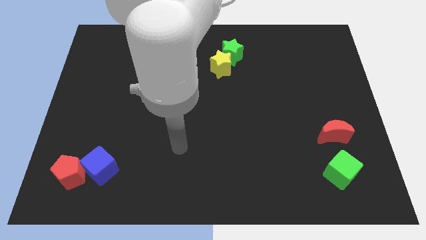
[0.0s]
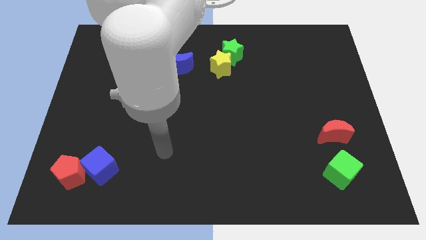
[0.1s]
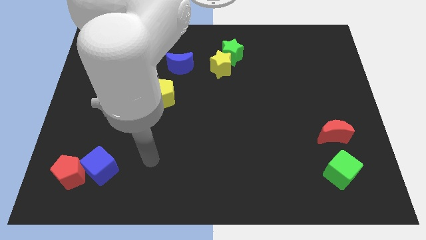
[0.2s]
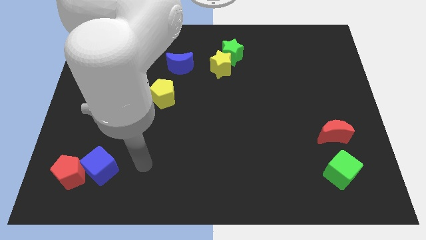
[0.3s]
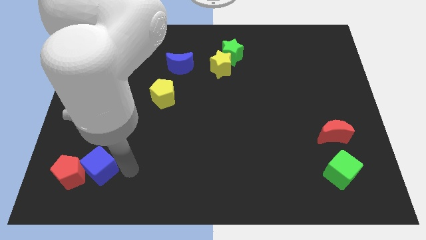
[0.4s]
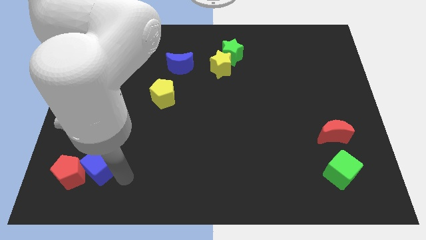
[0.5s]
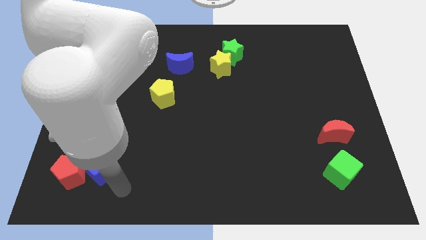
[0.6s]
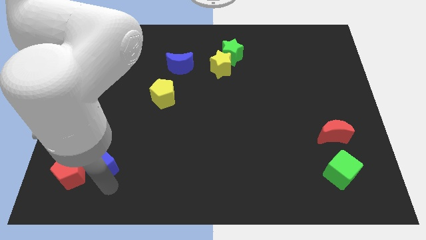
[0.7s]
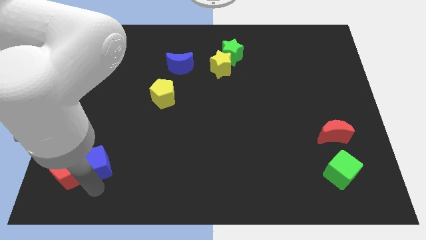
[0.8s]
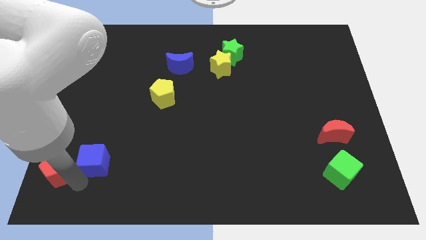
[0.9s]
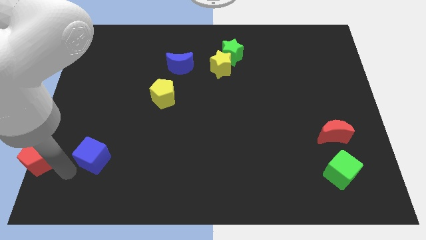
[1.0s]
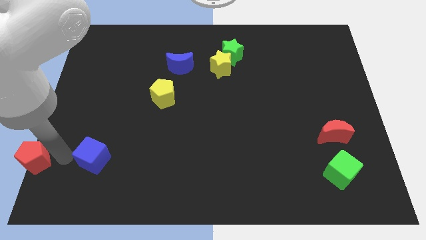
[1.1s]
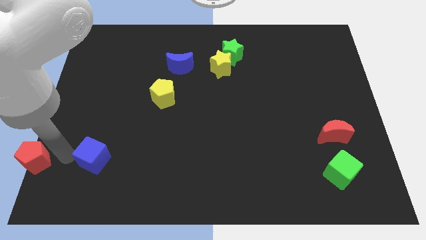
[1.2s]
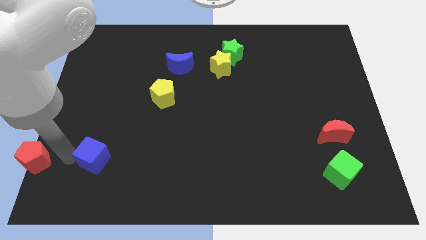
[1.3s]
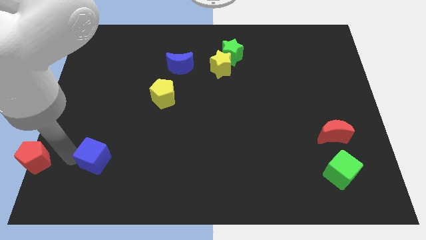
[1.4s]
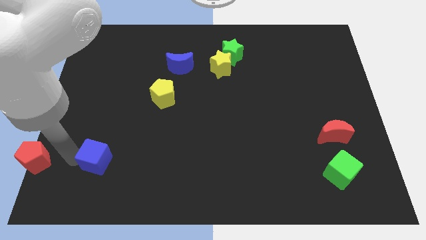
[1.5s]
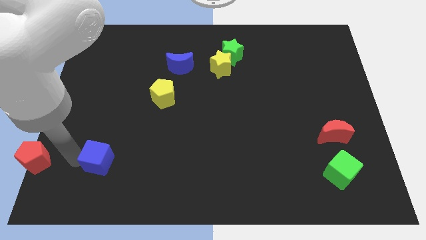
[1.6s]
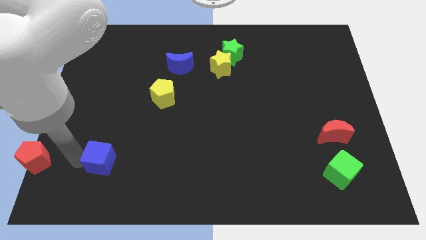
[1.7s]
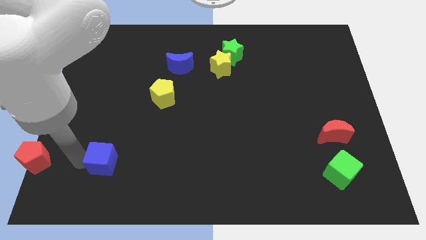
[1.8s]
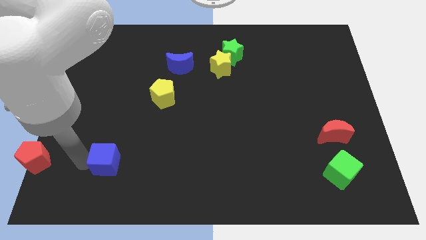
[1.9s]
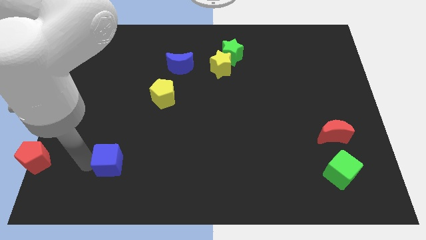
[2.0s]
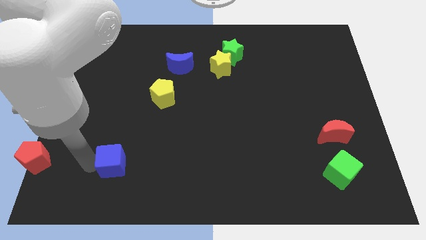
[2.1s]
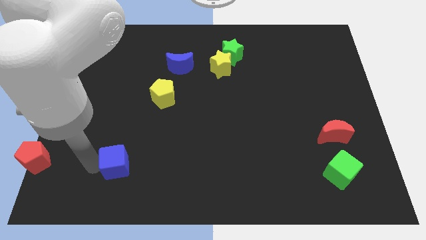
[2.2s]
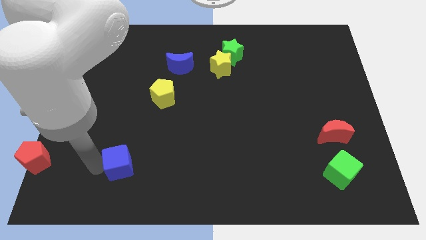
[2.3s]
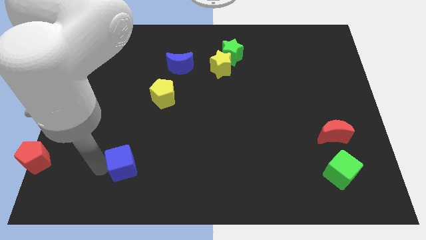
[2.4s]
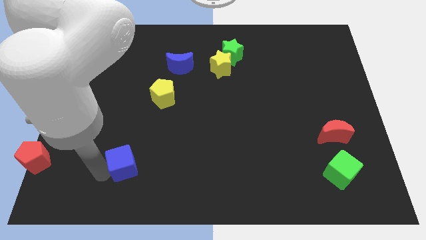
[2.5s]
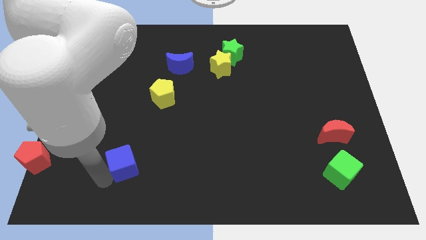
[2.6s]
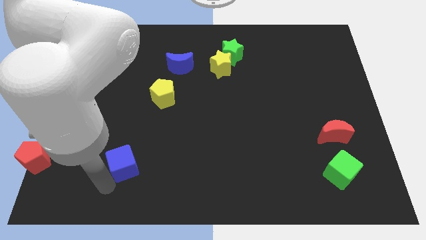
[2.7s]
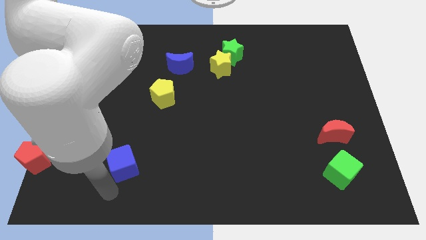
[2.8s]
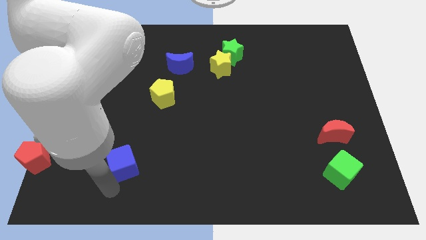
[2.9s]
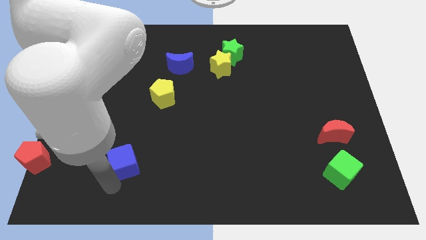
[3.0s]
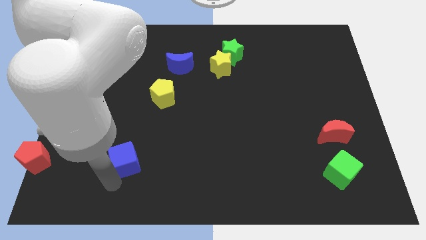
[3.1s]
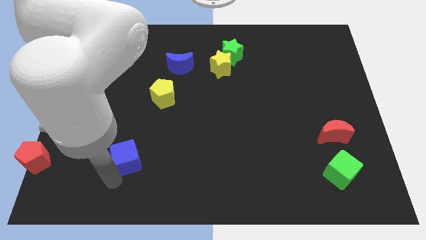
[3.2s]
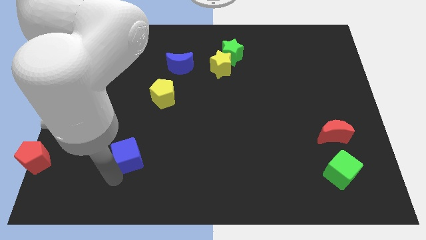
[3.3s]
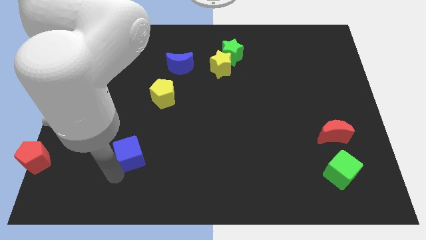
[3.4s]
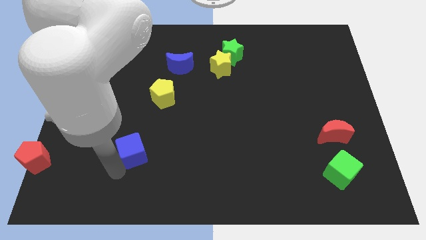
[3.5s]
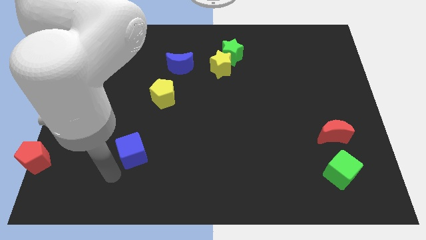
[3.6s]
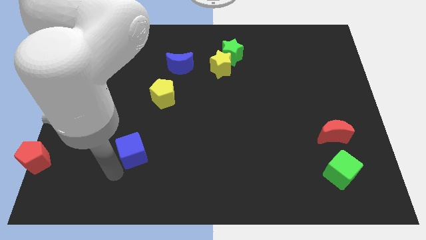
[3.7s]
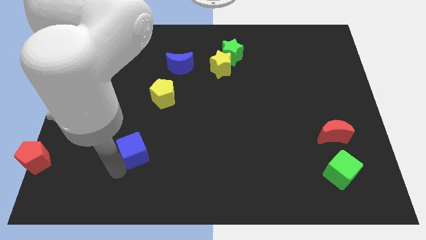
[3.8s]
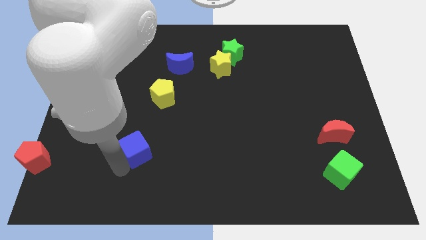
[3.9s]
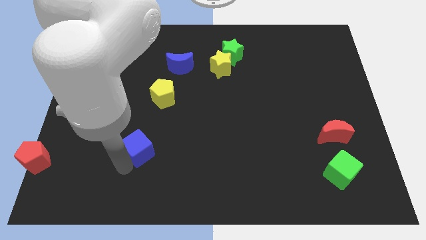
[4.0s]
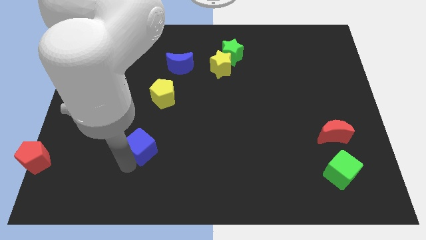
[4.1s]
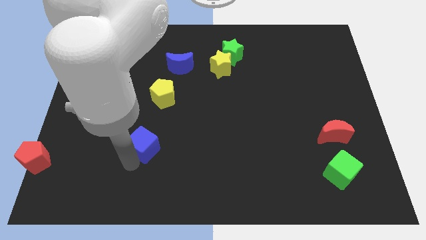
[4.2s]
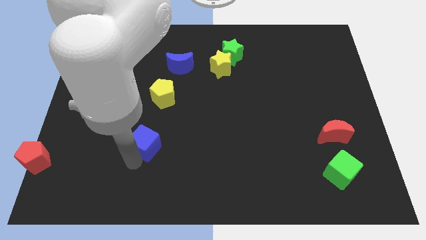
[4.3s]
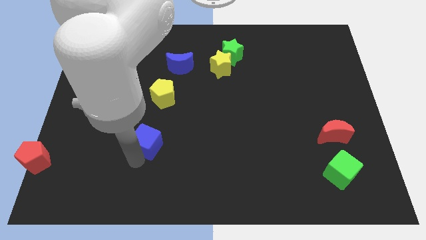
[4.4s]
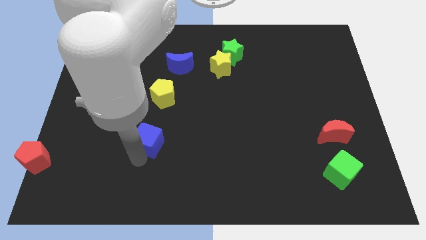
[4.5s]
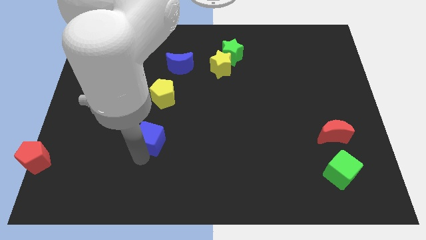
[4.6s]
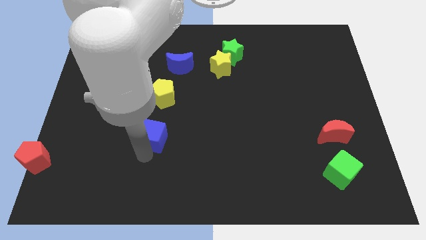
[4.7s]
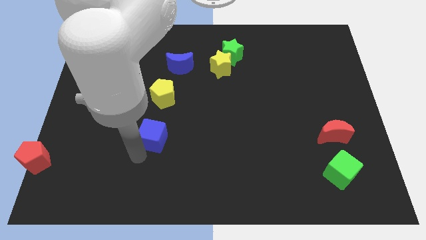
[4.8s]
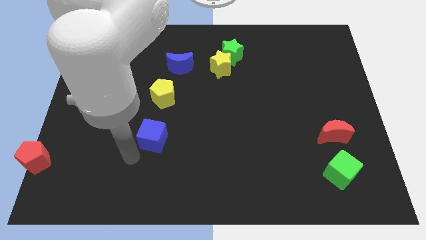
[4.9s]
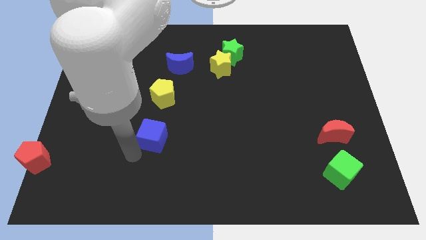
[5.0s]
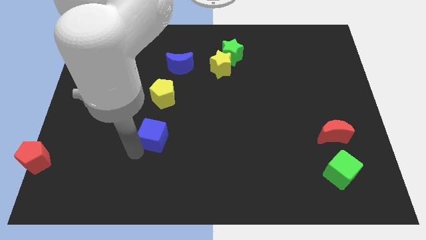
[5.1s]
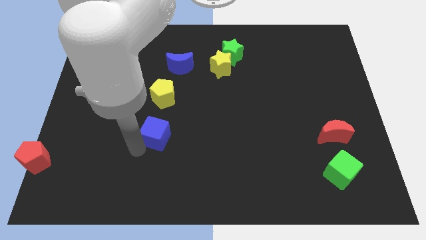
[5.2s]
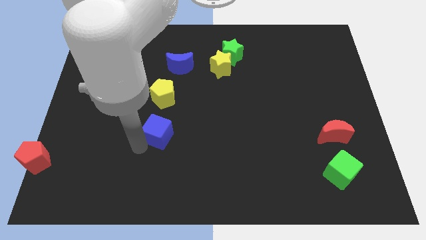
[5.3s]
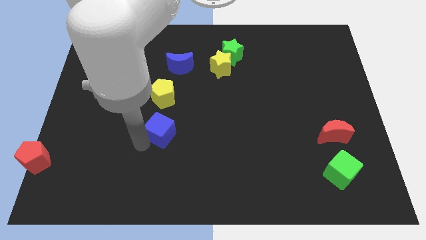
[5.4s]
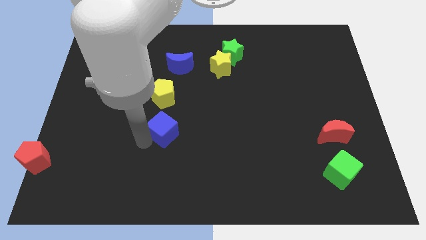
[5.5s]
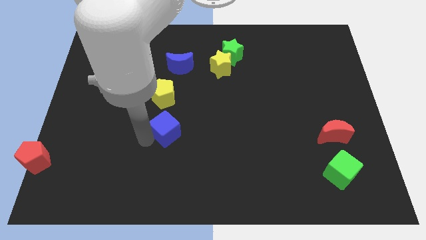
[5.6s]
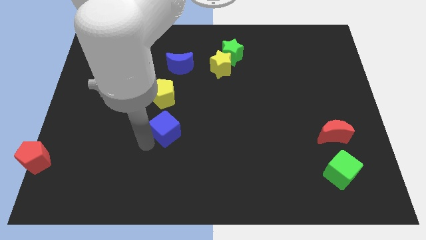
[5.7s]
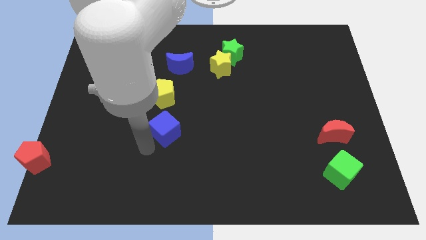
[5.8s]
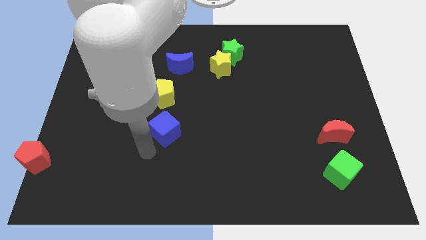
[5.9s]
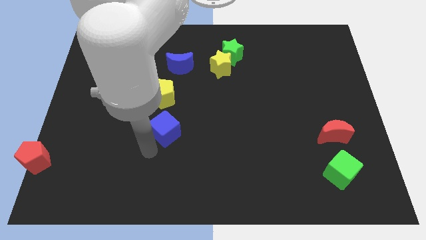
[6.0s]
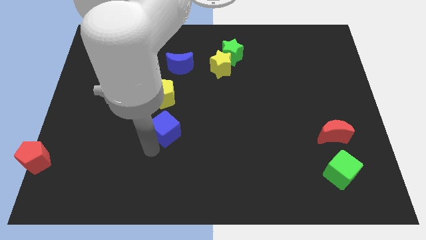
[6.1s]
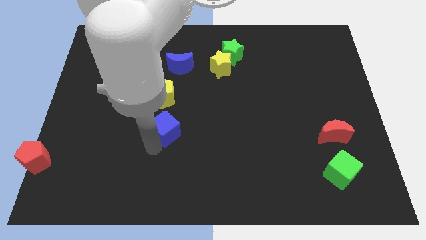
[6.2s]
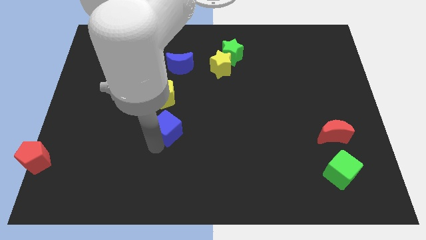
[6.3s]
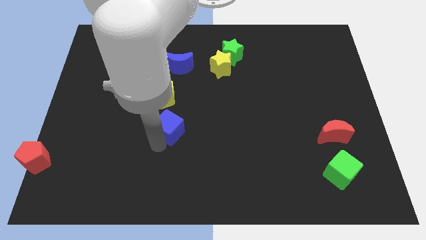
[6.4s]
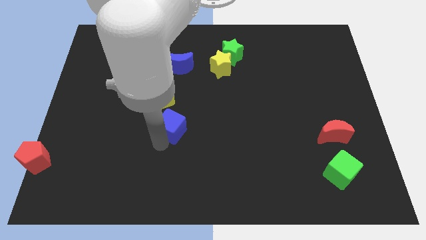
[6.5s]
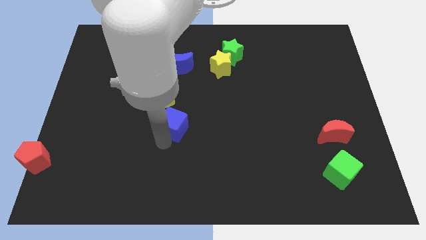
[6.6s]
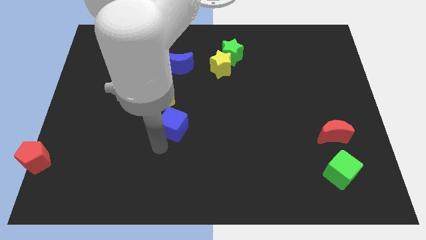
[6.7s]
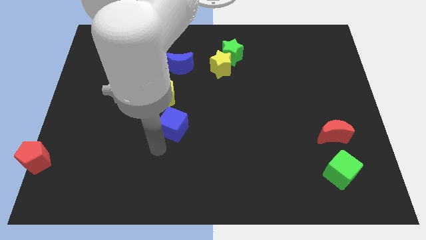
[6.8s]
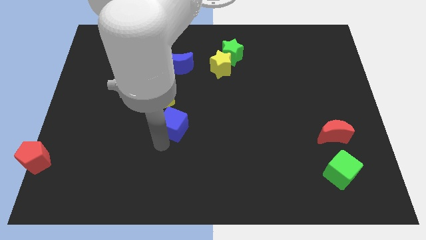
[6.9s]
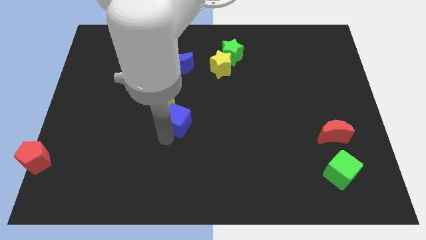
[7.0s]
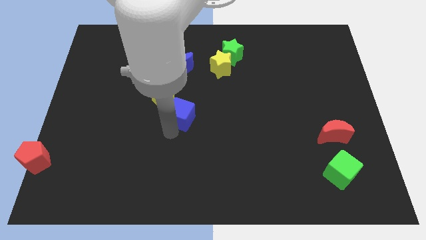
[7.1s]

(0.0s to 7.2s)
slide the blue cube diagonally upwards and right

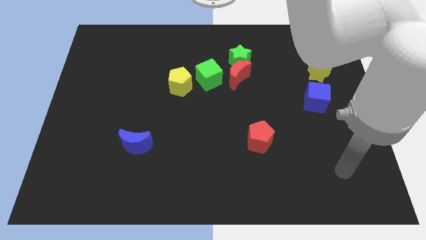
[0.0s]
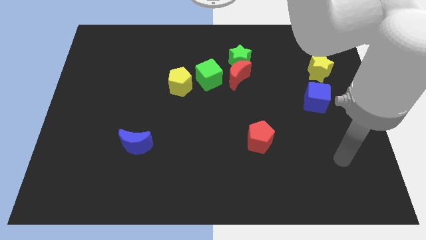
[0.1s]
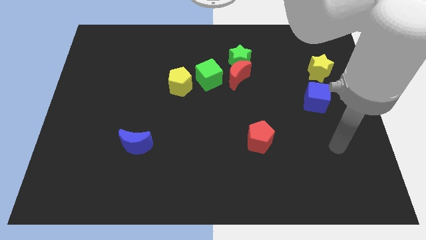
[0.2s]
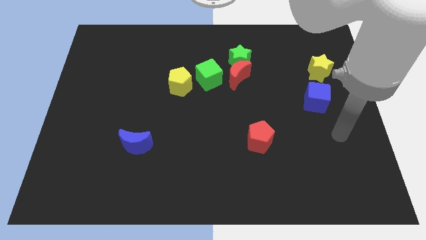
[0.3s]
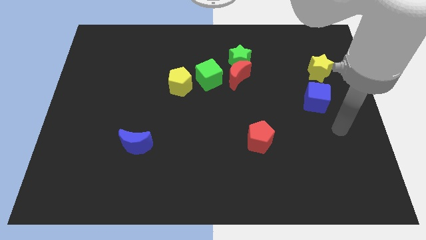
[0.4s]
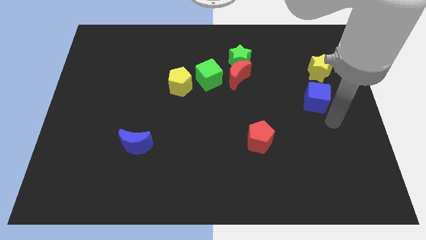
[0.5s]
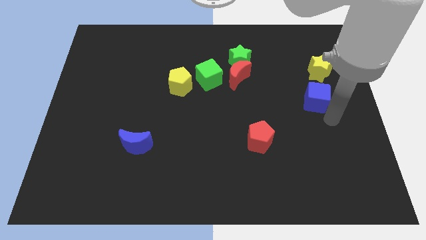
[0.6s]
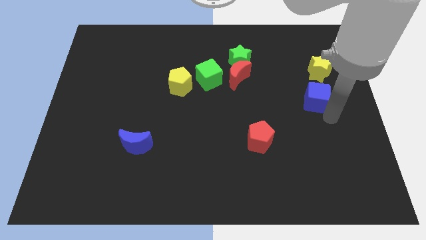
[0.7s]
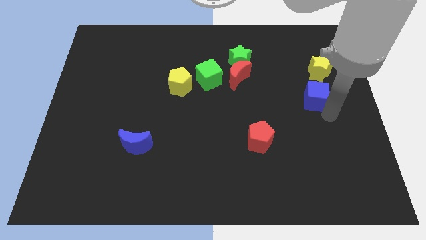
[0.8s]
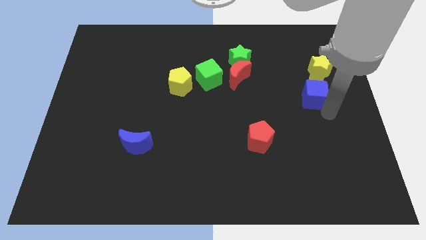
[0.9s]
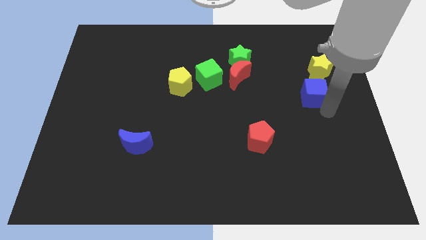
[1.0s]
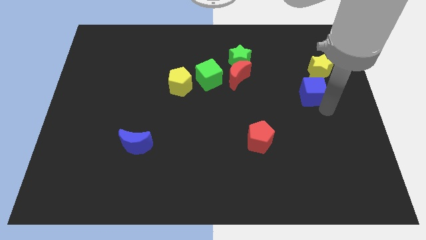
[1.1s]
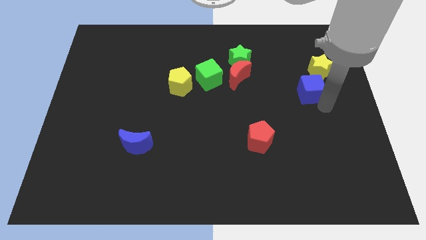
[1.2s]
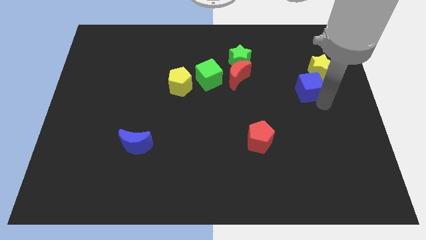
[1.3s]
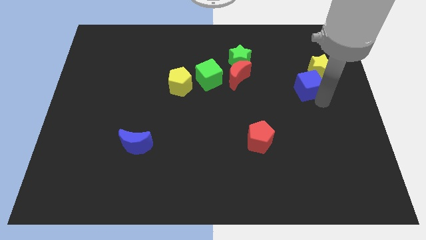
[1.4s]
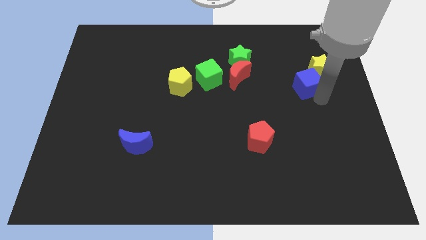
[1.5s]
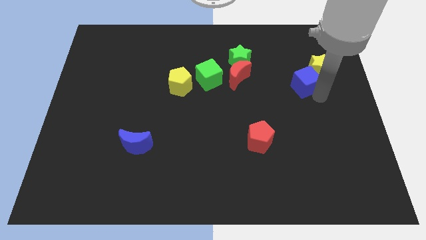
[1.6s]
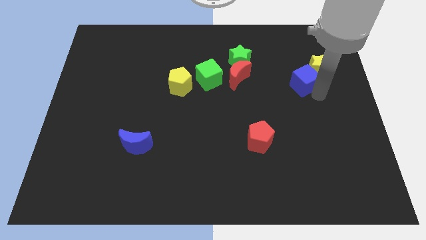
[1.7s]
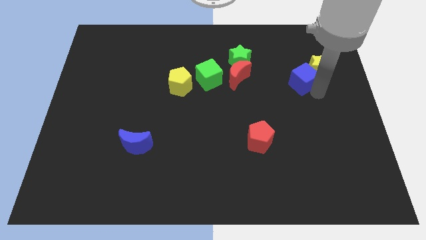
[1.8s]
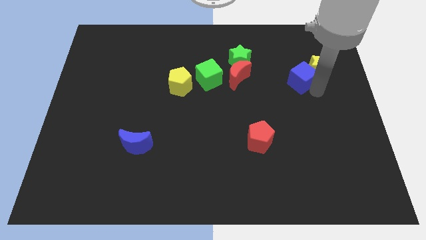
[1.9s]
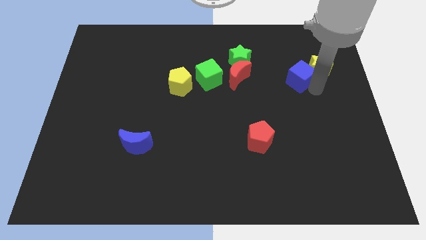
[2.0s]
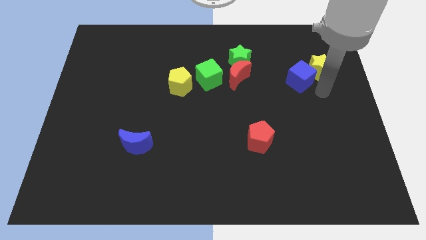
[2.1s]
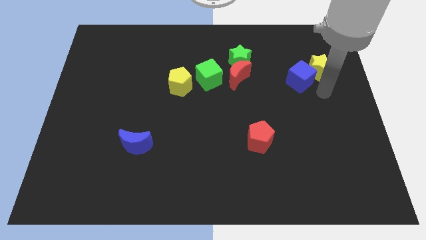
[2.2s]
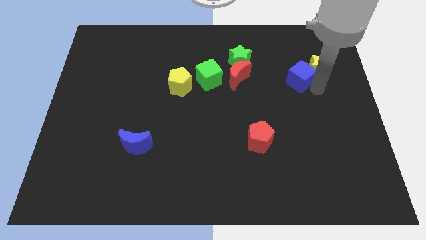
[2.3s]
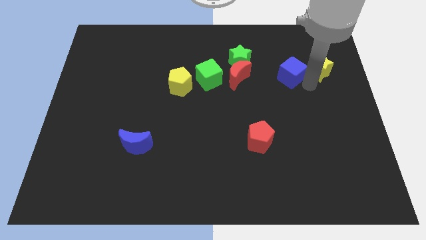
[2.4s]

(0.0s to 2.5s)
push the blue cube up and left slightly
